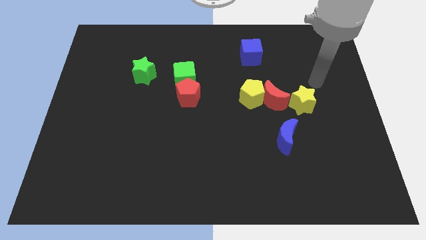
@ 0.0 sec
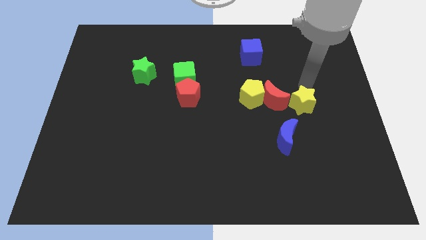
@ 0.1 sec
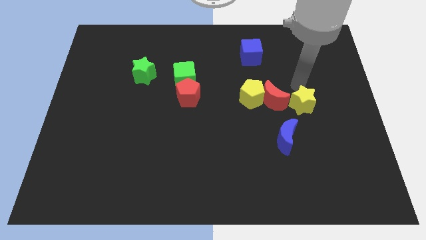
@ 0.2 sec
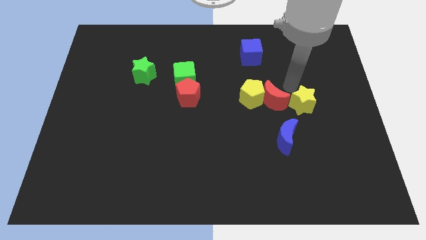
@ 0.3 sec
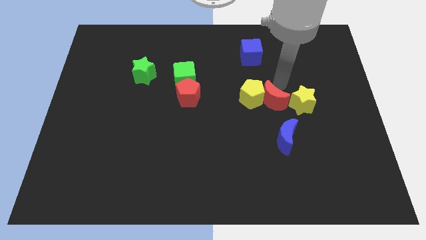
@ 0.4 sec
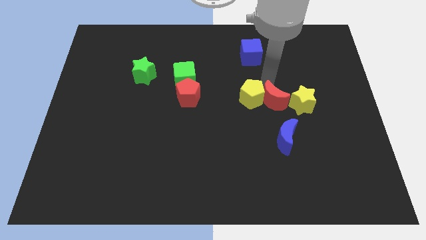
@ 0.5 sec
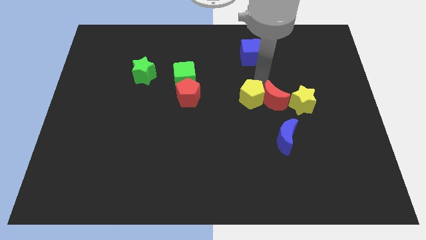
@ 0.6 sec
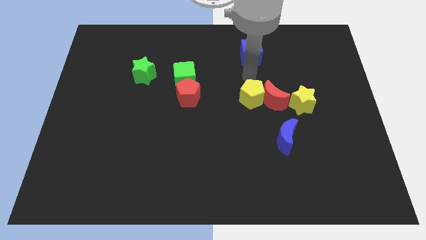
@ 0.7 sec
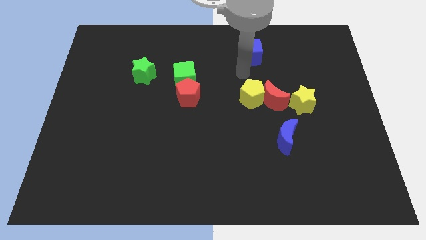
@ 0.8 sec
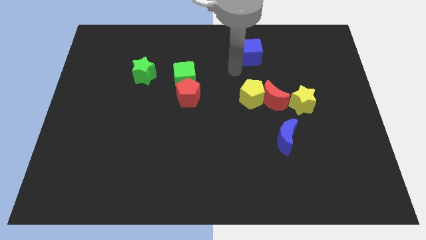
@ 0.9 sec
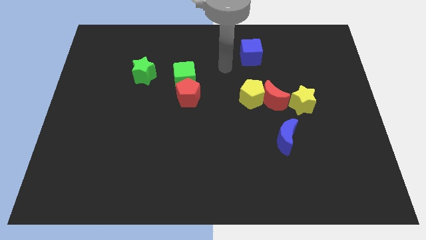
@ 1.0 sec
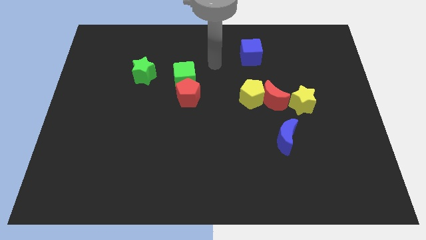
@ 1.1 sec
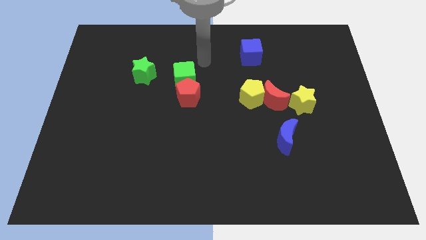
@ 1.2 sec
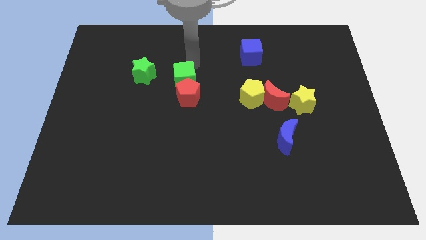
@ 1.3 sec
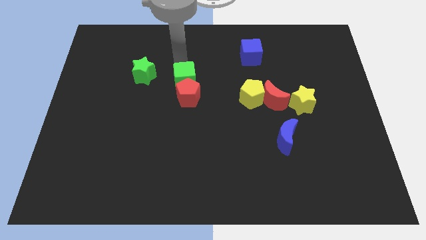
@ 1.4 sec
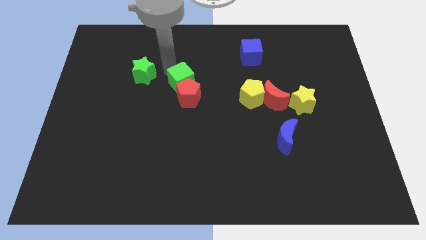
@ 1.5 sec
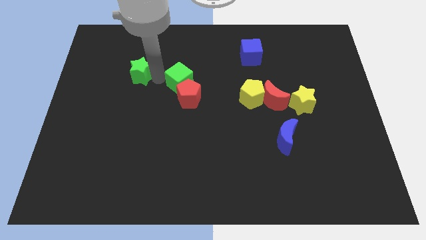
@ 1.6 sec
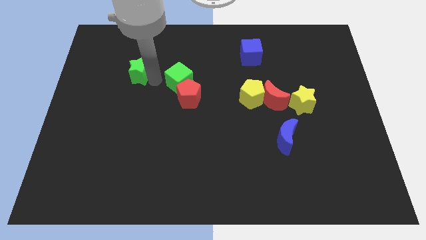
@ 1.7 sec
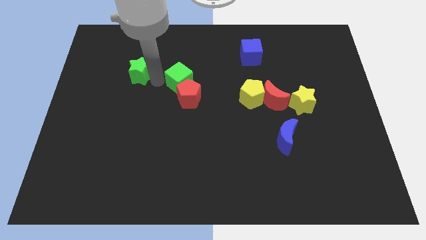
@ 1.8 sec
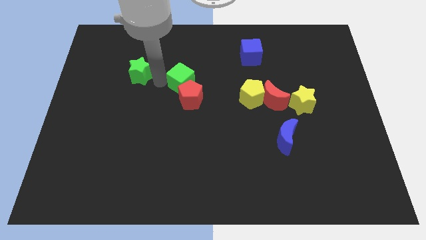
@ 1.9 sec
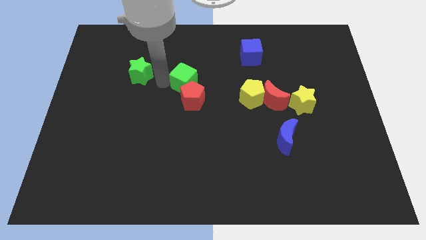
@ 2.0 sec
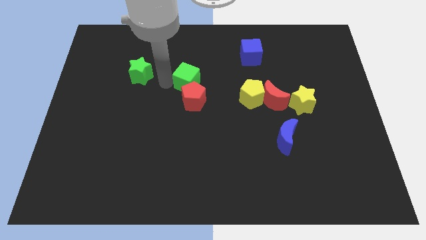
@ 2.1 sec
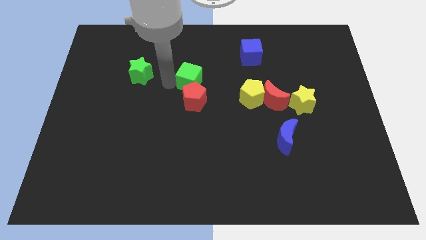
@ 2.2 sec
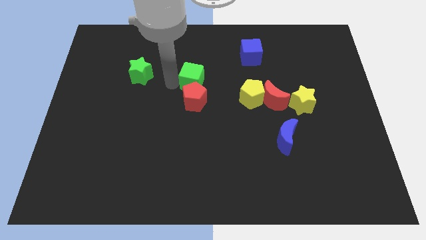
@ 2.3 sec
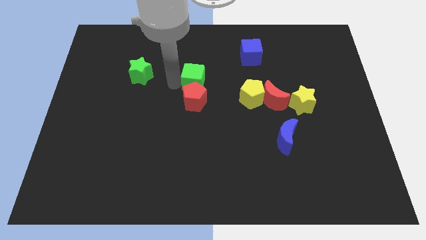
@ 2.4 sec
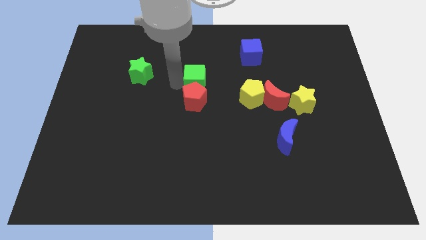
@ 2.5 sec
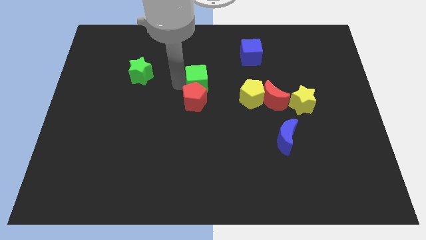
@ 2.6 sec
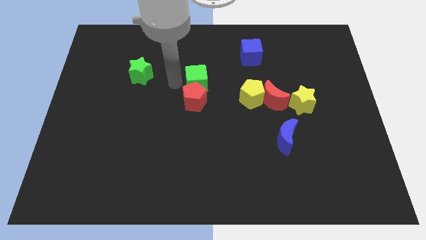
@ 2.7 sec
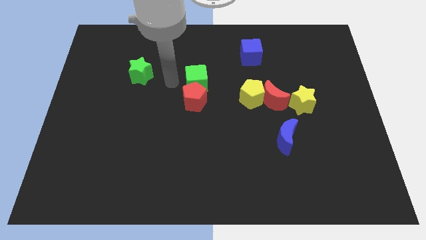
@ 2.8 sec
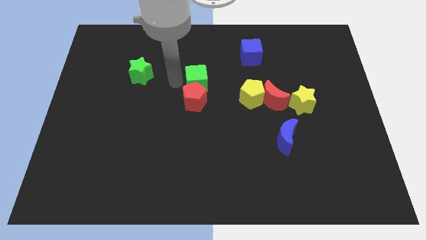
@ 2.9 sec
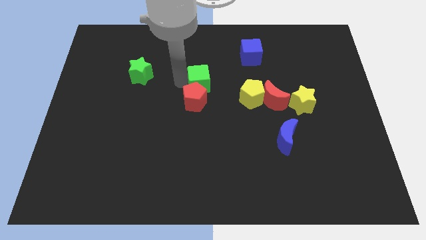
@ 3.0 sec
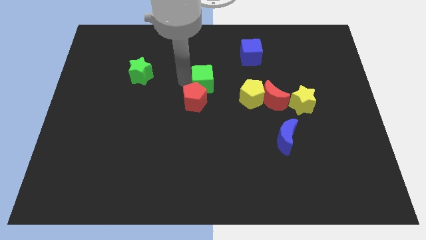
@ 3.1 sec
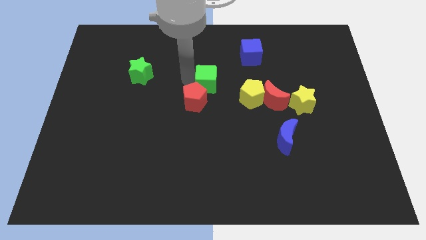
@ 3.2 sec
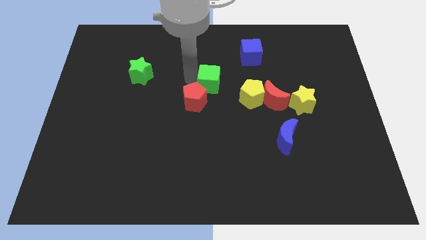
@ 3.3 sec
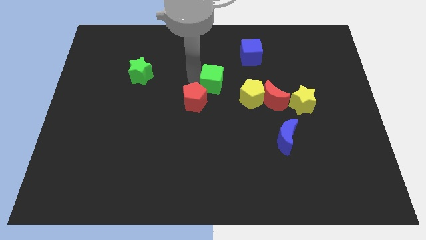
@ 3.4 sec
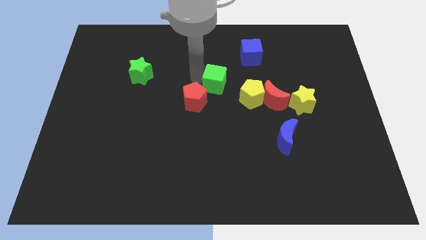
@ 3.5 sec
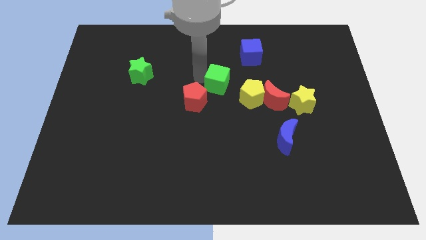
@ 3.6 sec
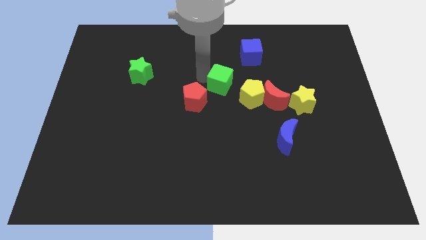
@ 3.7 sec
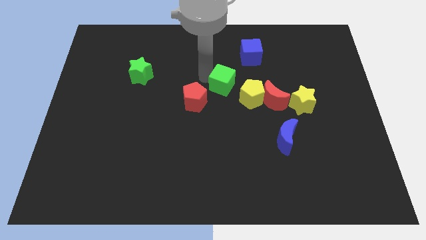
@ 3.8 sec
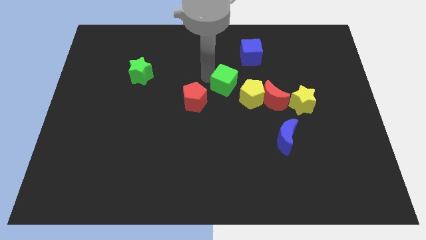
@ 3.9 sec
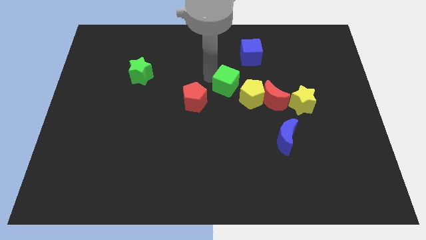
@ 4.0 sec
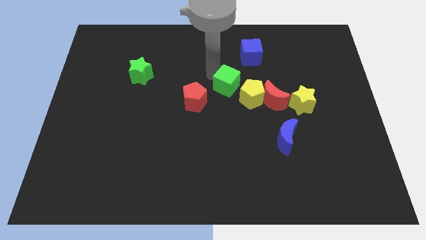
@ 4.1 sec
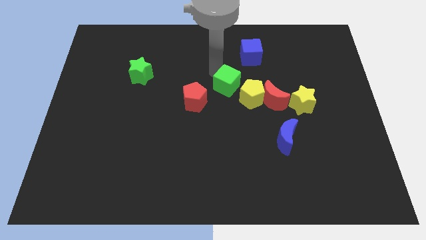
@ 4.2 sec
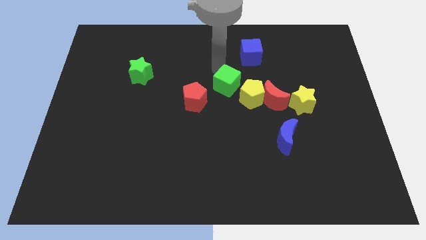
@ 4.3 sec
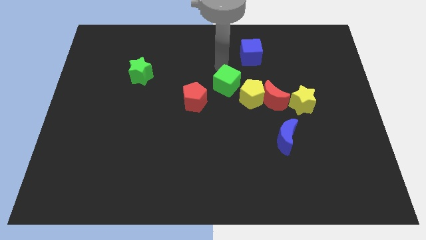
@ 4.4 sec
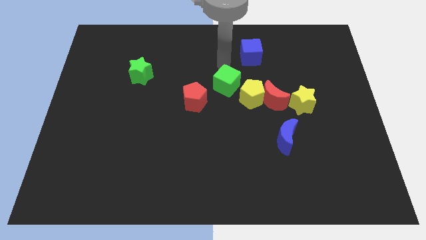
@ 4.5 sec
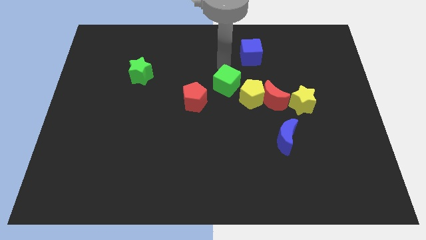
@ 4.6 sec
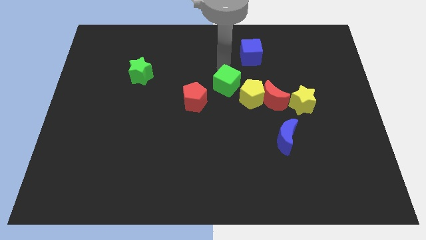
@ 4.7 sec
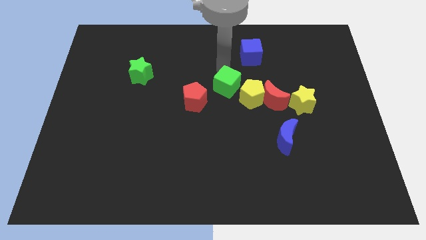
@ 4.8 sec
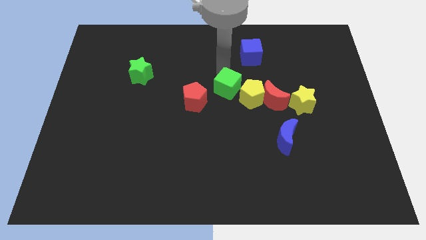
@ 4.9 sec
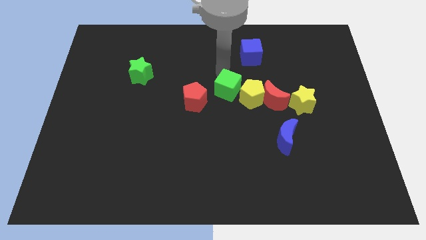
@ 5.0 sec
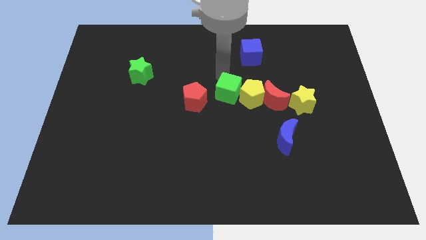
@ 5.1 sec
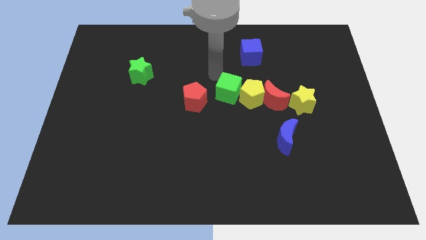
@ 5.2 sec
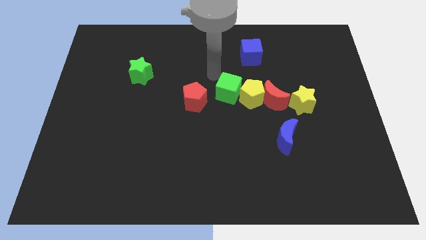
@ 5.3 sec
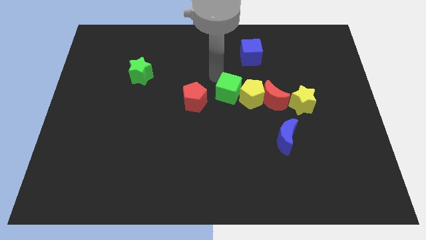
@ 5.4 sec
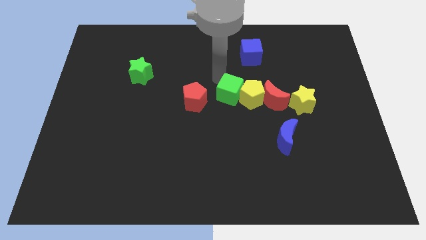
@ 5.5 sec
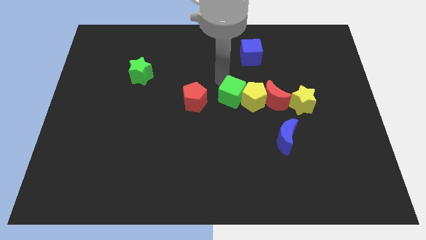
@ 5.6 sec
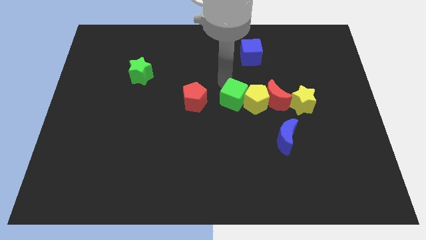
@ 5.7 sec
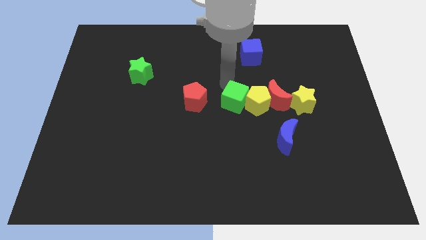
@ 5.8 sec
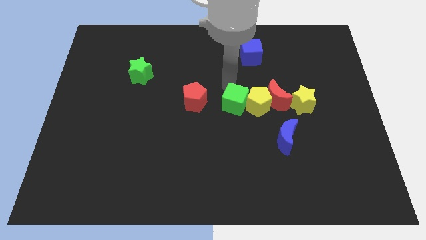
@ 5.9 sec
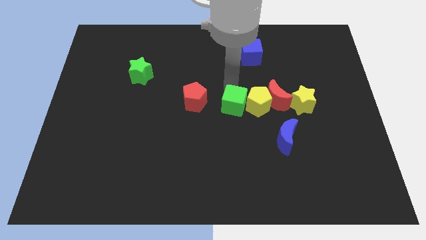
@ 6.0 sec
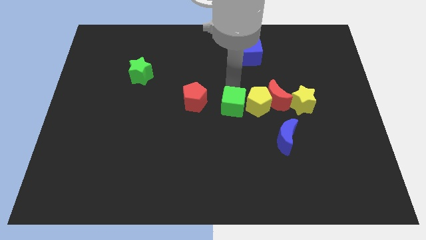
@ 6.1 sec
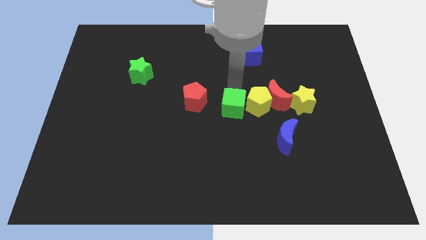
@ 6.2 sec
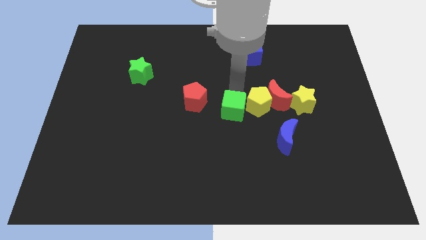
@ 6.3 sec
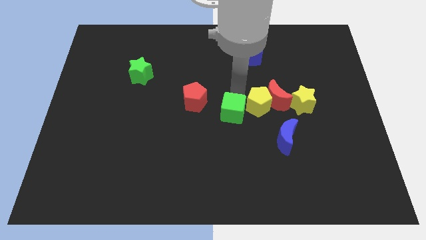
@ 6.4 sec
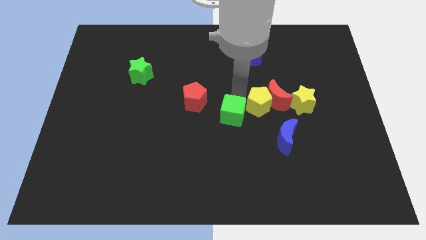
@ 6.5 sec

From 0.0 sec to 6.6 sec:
push the green cube to the bottom left of the red moon

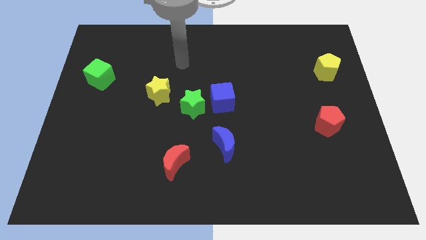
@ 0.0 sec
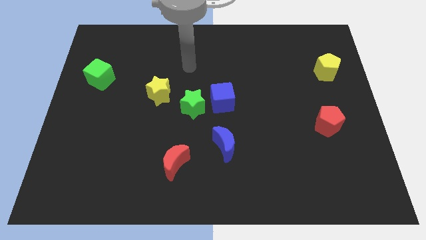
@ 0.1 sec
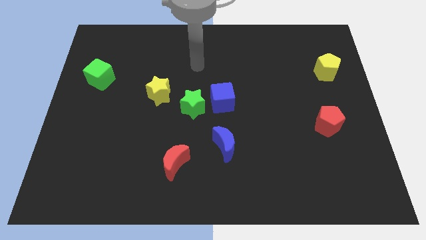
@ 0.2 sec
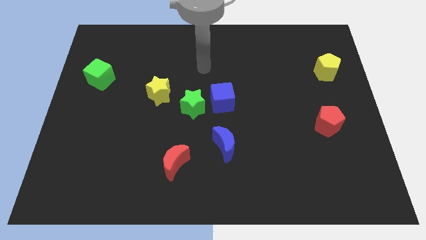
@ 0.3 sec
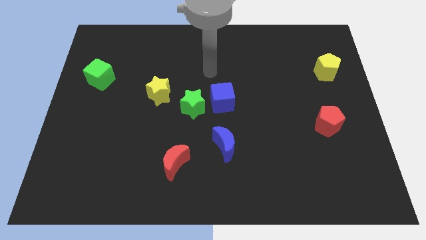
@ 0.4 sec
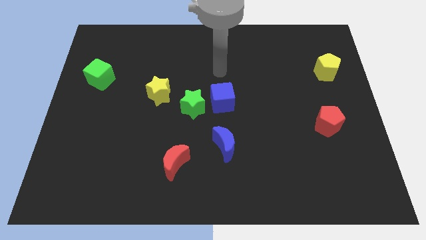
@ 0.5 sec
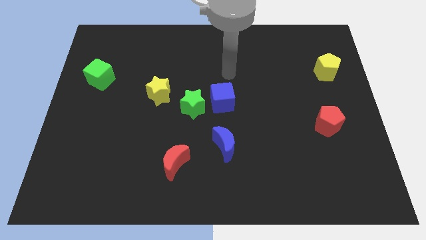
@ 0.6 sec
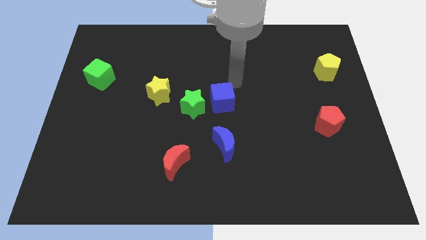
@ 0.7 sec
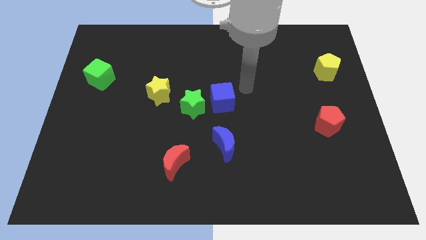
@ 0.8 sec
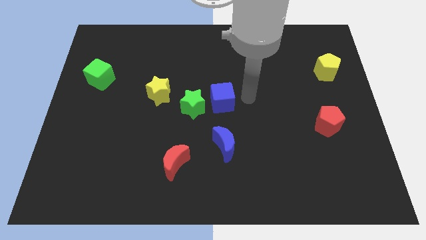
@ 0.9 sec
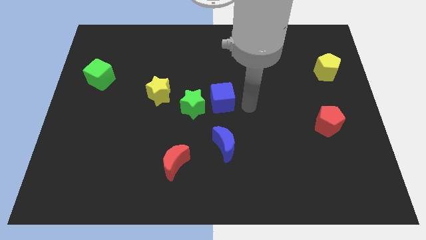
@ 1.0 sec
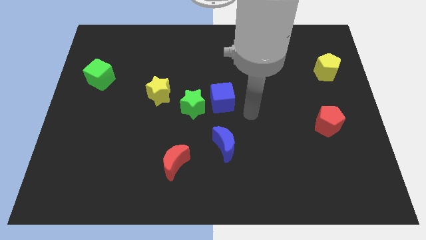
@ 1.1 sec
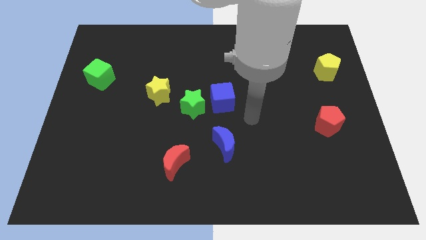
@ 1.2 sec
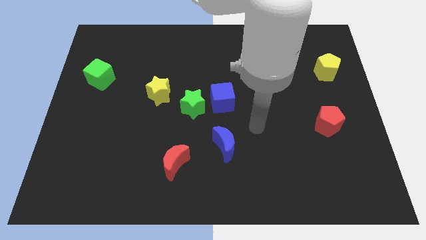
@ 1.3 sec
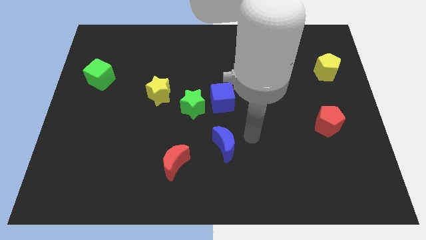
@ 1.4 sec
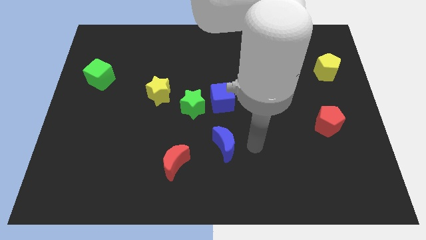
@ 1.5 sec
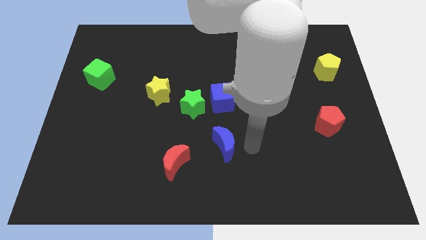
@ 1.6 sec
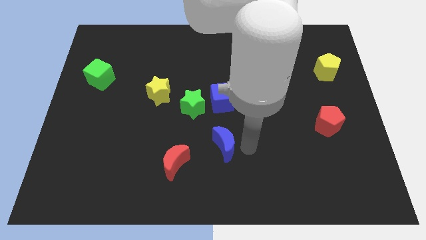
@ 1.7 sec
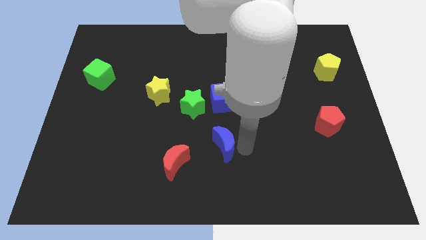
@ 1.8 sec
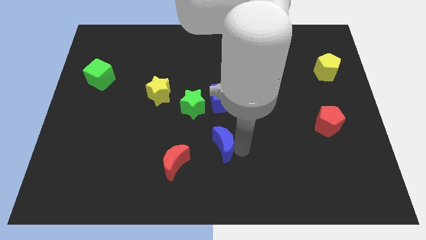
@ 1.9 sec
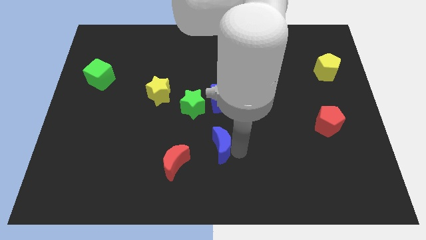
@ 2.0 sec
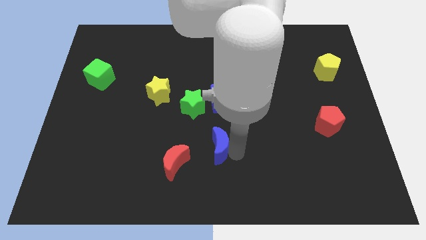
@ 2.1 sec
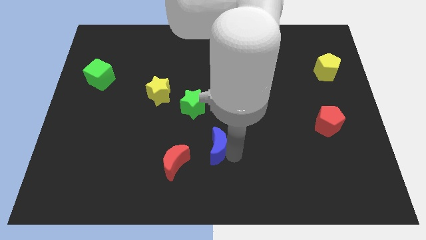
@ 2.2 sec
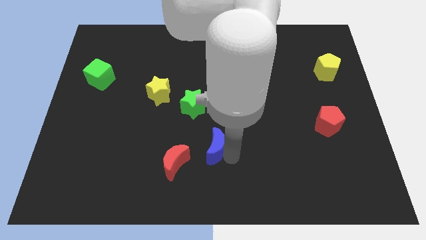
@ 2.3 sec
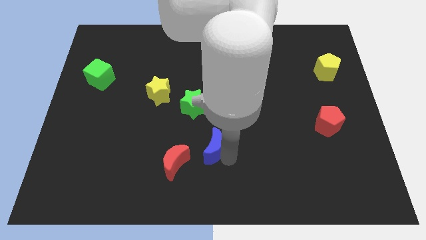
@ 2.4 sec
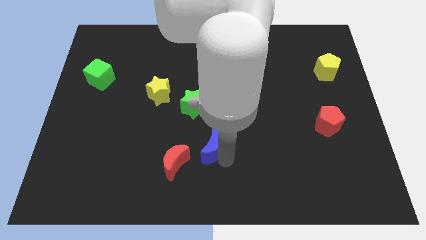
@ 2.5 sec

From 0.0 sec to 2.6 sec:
push the blue moon below the green star
